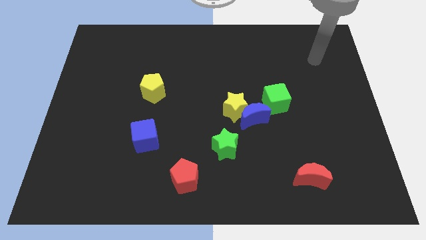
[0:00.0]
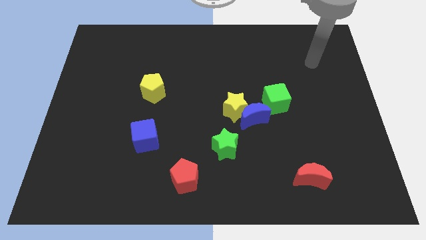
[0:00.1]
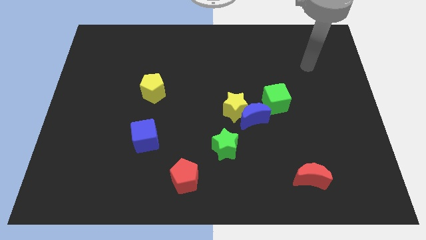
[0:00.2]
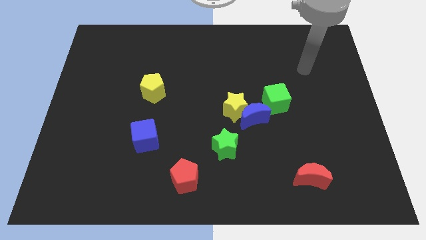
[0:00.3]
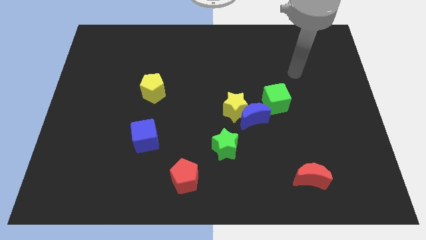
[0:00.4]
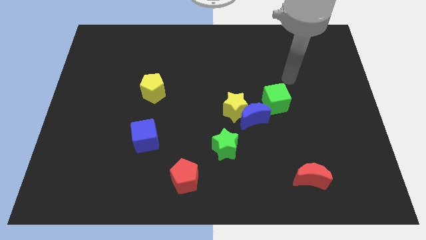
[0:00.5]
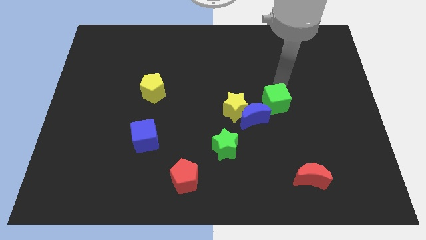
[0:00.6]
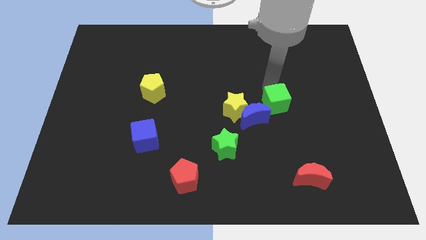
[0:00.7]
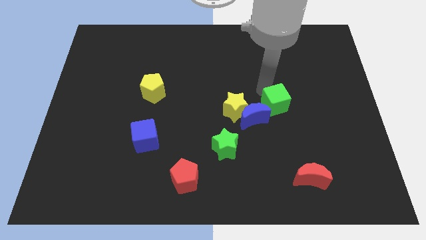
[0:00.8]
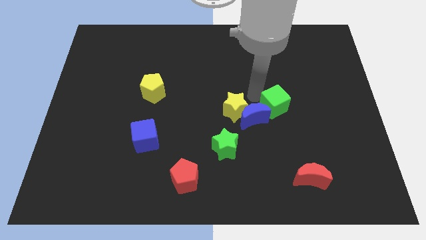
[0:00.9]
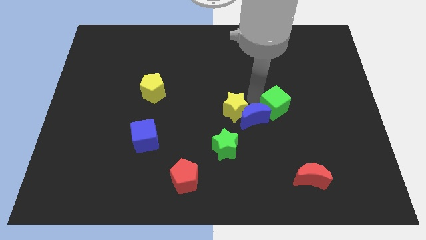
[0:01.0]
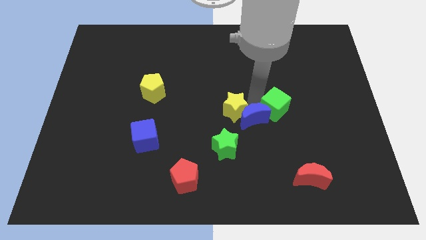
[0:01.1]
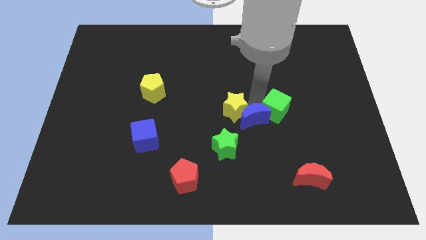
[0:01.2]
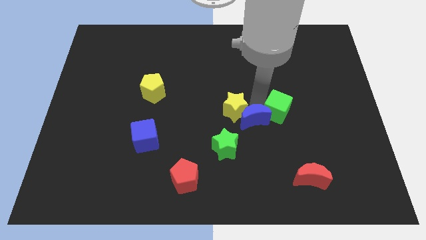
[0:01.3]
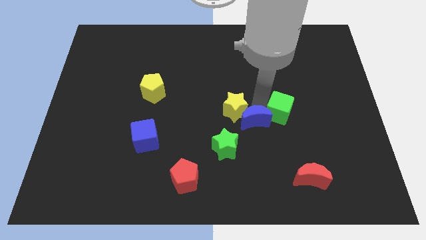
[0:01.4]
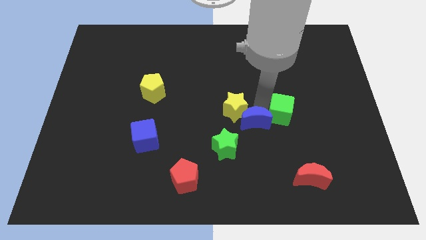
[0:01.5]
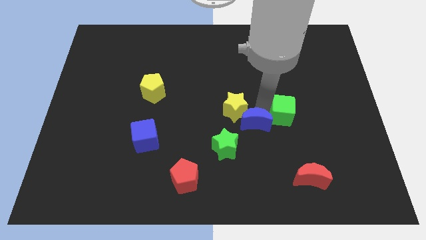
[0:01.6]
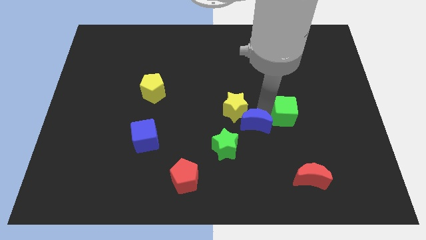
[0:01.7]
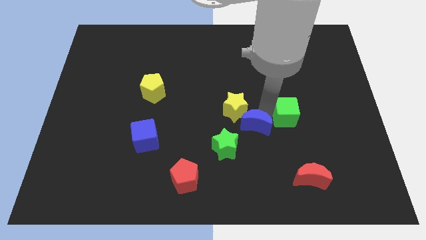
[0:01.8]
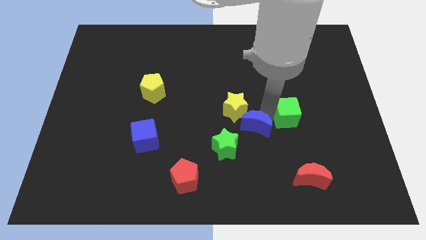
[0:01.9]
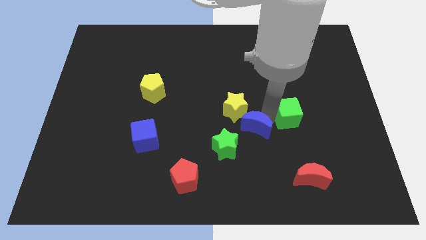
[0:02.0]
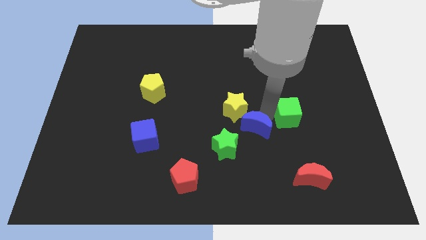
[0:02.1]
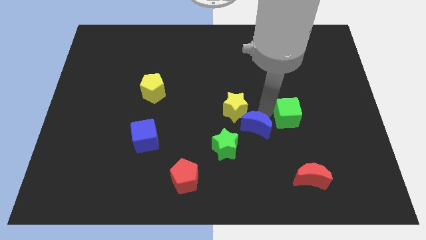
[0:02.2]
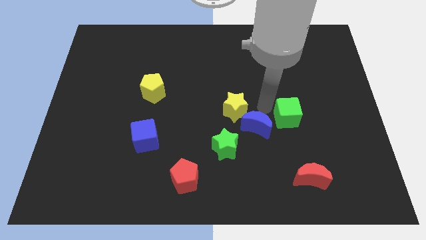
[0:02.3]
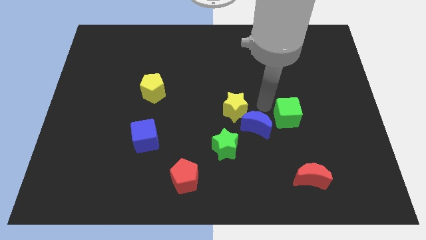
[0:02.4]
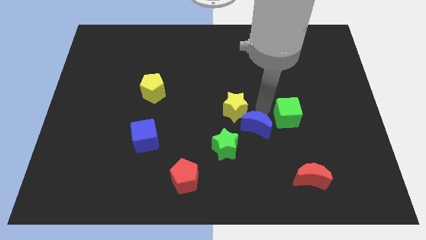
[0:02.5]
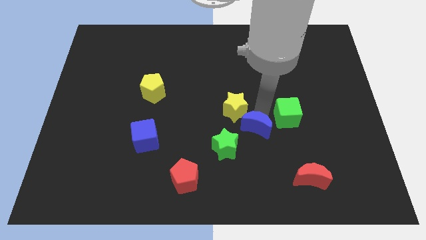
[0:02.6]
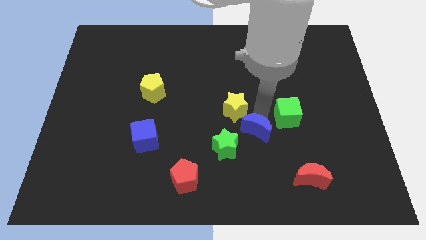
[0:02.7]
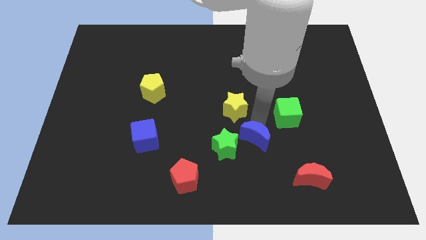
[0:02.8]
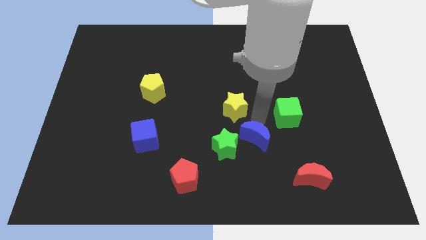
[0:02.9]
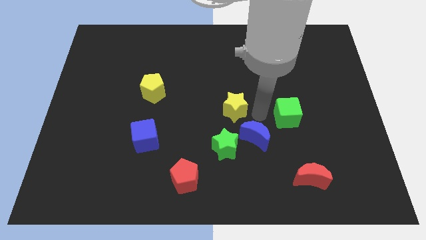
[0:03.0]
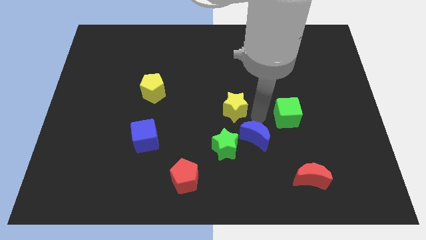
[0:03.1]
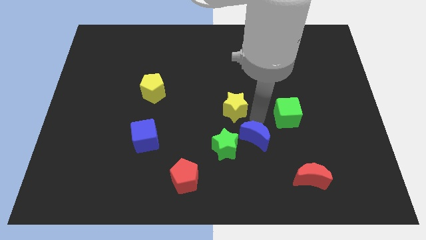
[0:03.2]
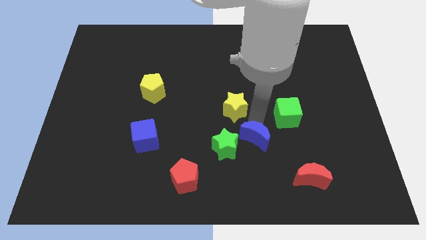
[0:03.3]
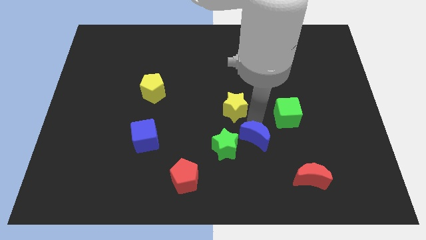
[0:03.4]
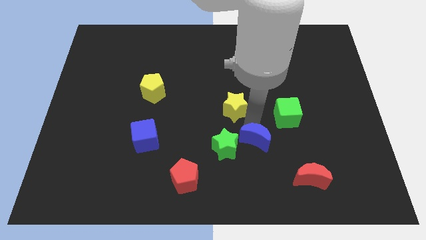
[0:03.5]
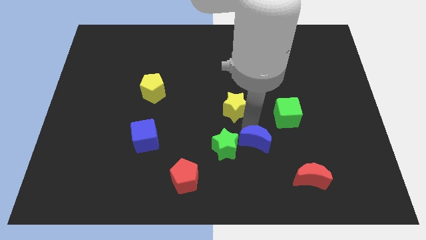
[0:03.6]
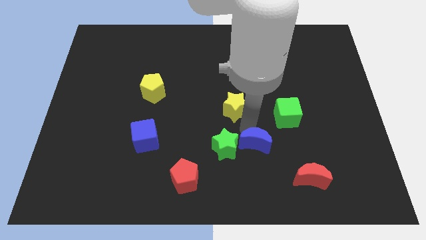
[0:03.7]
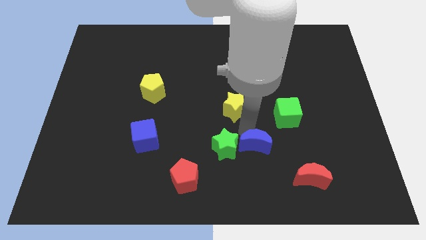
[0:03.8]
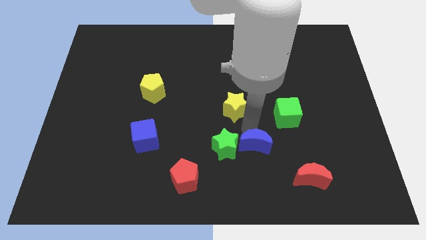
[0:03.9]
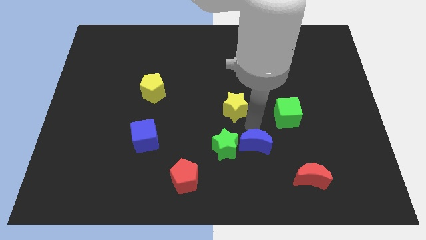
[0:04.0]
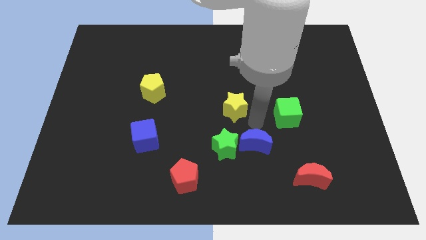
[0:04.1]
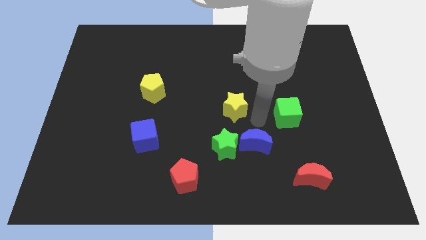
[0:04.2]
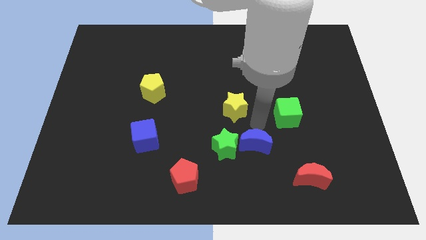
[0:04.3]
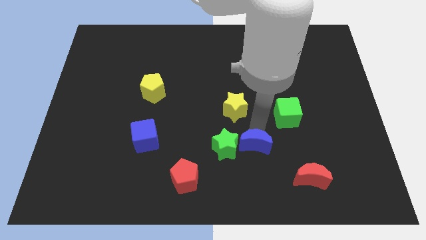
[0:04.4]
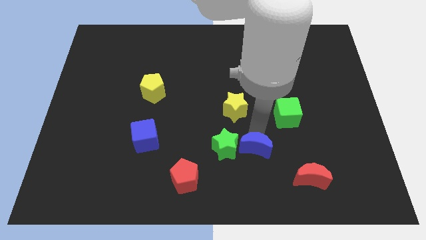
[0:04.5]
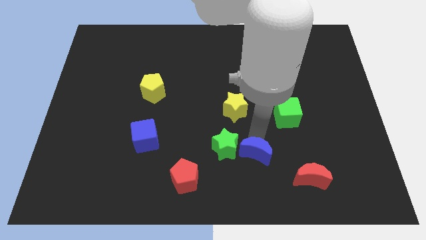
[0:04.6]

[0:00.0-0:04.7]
pull the blue moon apart from the yellow star and green cube

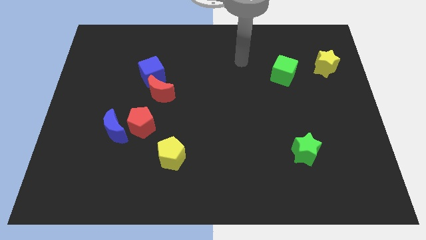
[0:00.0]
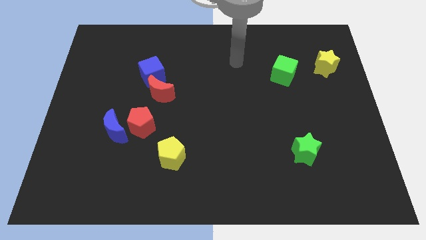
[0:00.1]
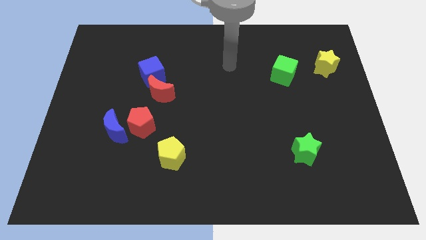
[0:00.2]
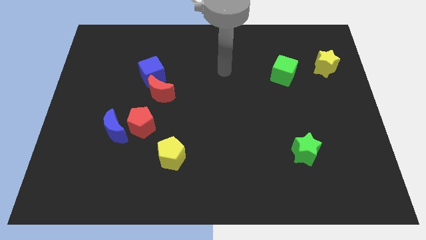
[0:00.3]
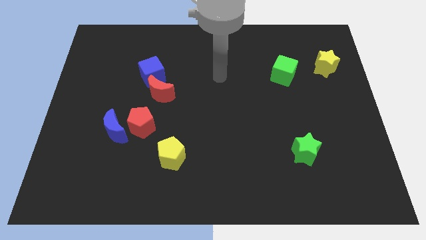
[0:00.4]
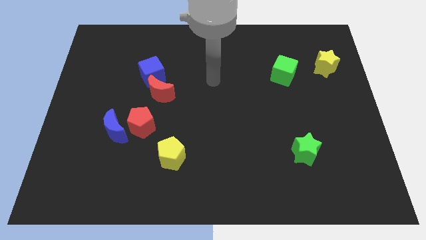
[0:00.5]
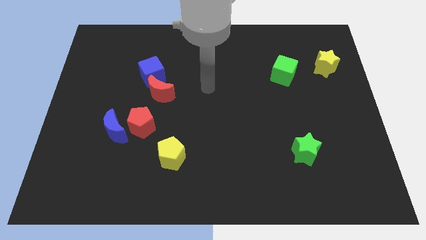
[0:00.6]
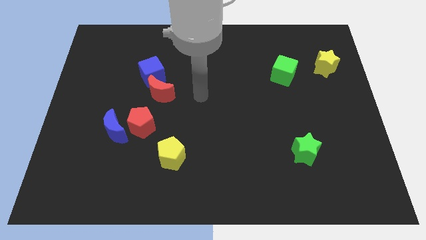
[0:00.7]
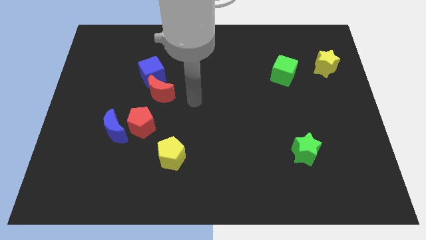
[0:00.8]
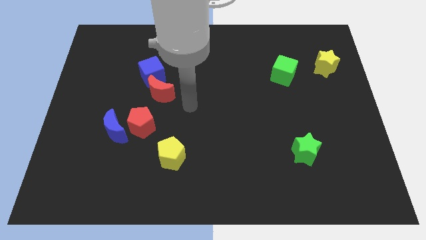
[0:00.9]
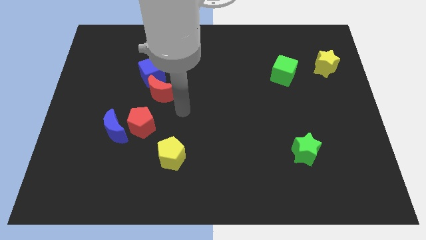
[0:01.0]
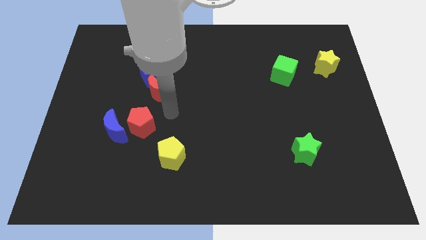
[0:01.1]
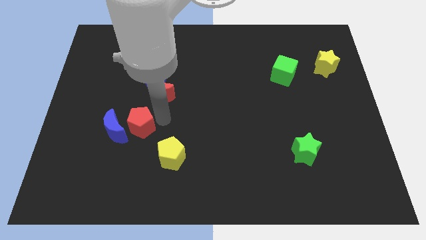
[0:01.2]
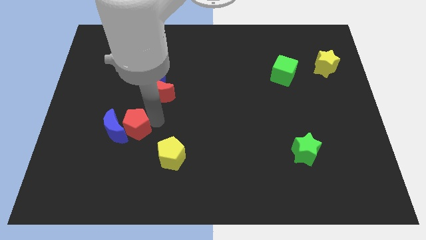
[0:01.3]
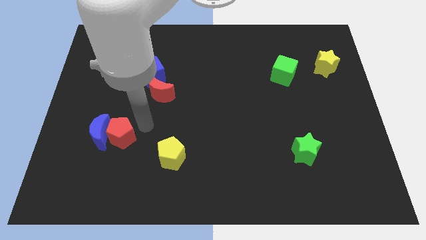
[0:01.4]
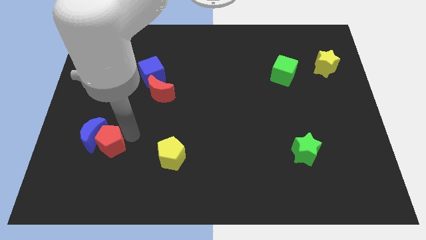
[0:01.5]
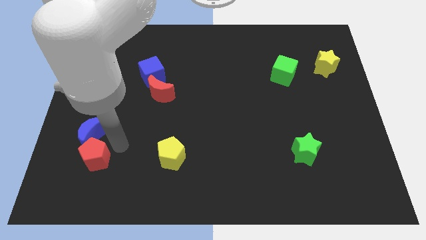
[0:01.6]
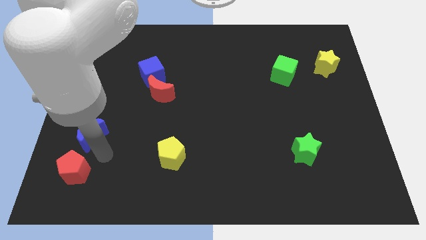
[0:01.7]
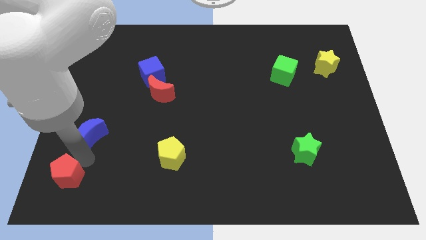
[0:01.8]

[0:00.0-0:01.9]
pull the blue moon apart from the red pentagon

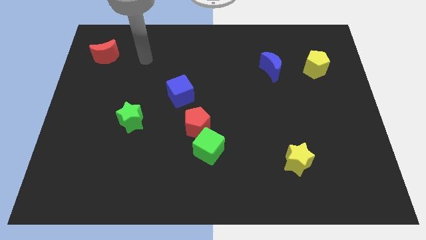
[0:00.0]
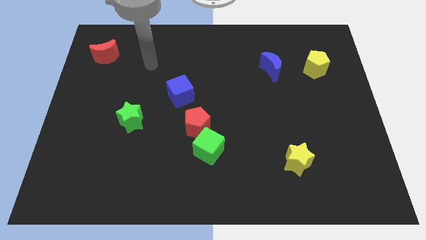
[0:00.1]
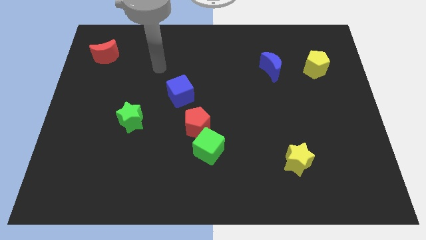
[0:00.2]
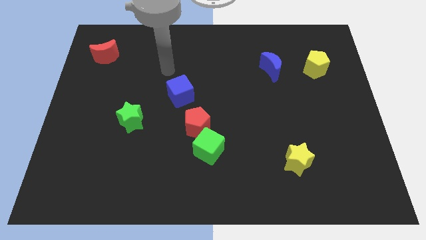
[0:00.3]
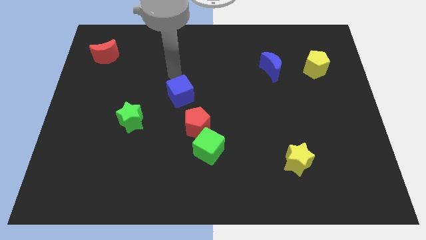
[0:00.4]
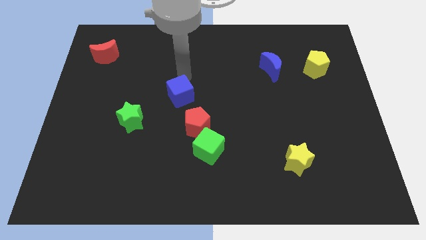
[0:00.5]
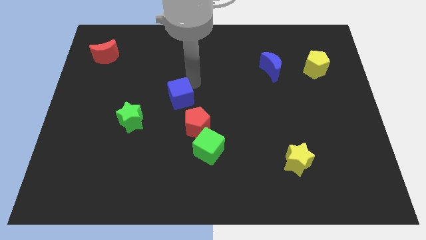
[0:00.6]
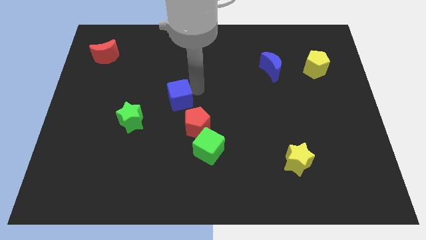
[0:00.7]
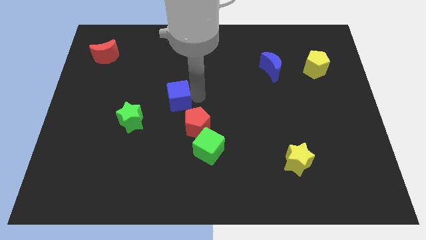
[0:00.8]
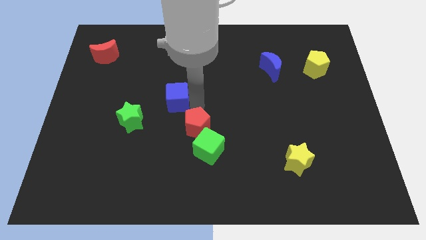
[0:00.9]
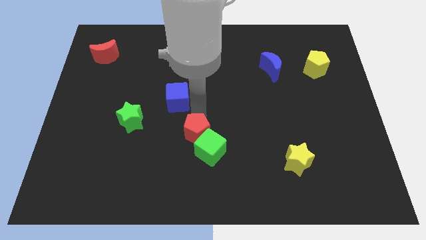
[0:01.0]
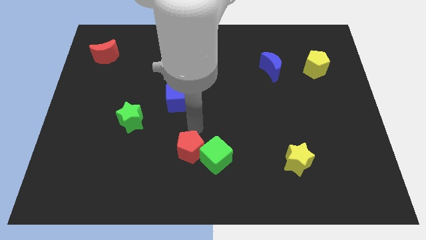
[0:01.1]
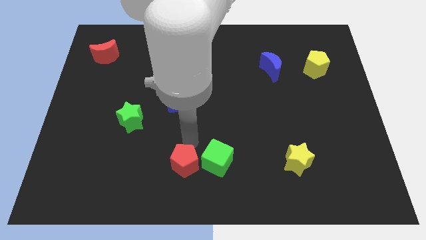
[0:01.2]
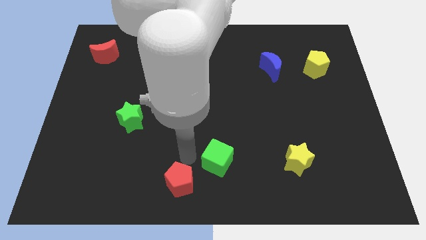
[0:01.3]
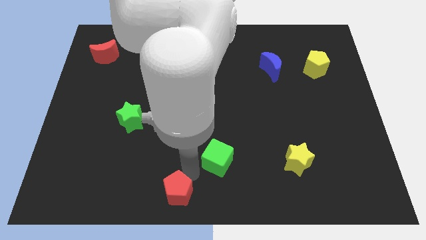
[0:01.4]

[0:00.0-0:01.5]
separate the green cube from the red pentagon

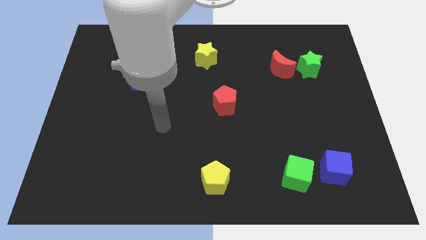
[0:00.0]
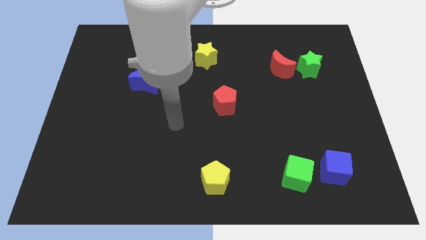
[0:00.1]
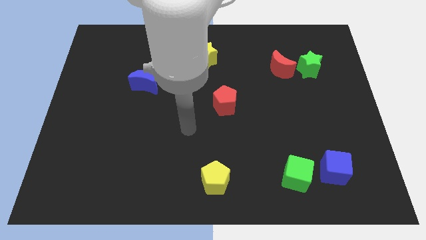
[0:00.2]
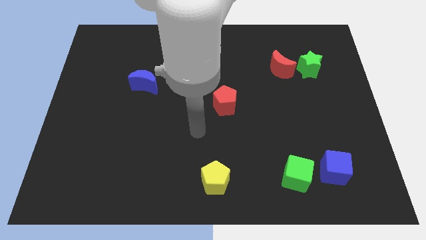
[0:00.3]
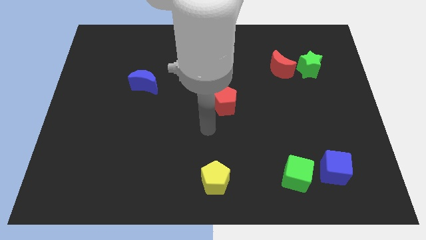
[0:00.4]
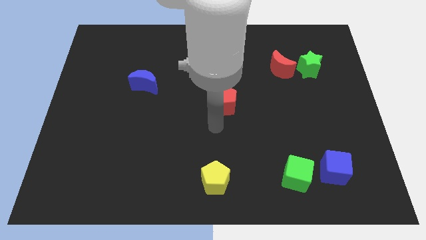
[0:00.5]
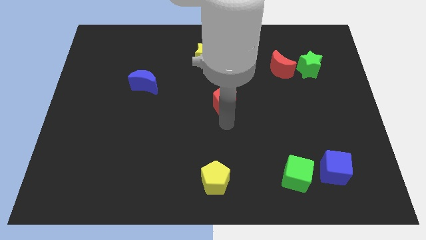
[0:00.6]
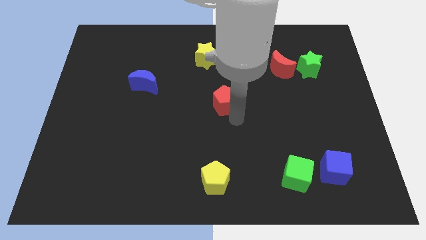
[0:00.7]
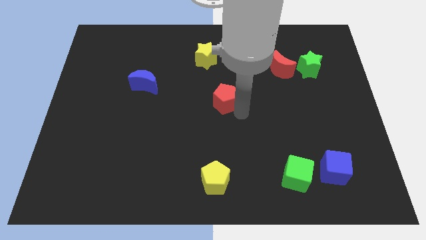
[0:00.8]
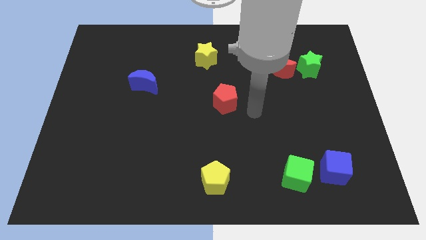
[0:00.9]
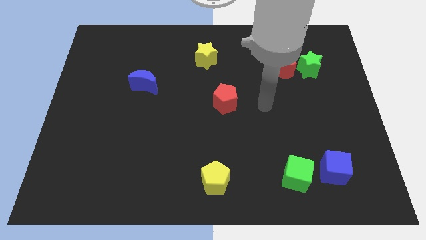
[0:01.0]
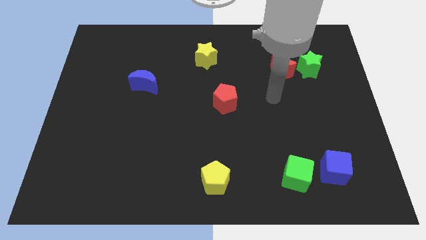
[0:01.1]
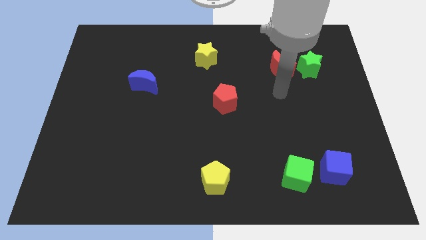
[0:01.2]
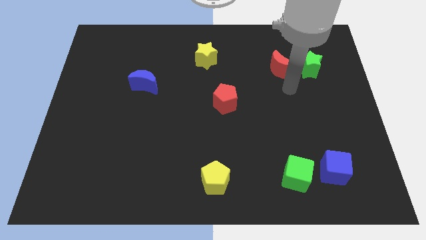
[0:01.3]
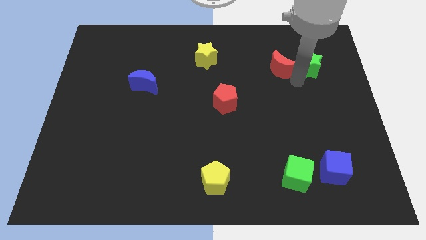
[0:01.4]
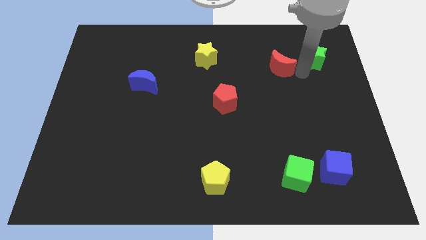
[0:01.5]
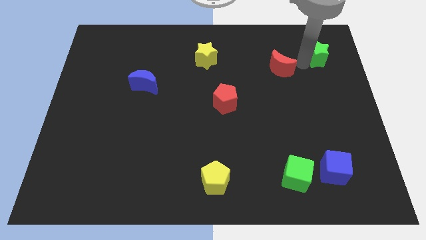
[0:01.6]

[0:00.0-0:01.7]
pull the red moon apart from the green star
